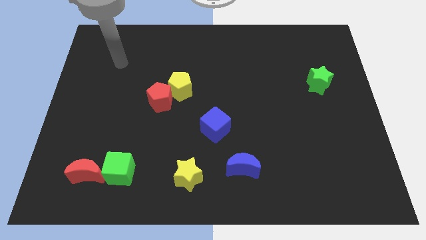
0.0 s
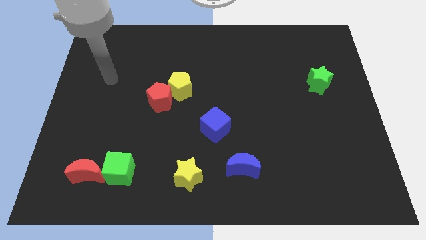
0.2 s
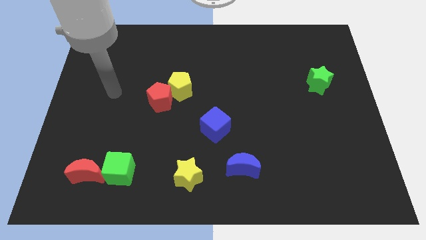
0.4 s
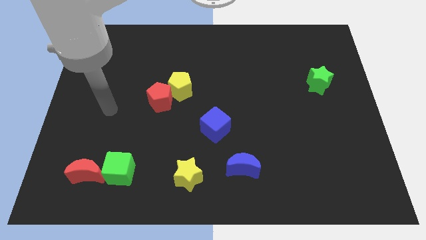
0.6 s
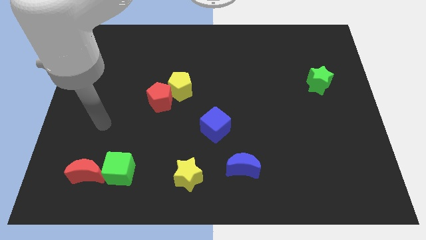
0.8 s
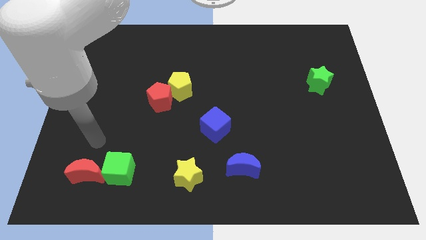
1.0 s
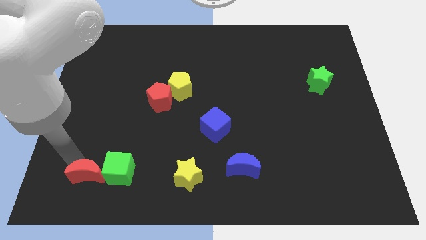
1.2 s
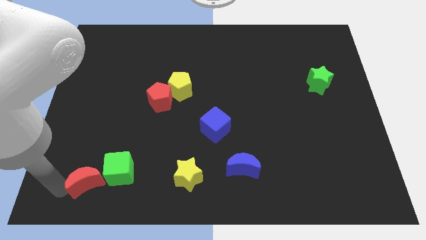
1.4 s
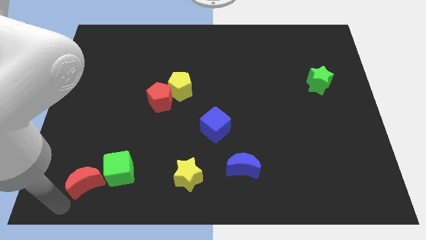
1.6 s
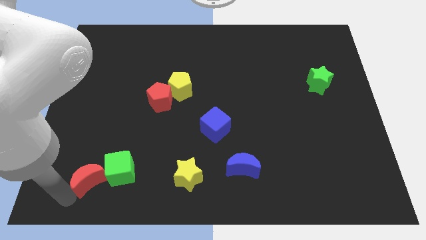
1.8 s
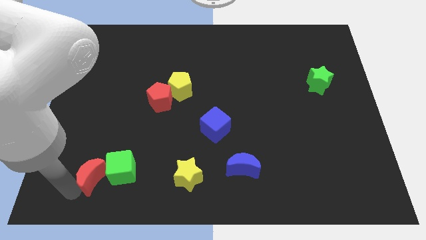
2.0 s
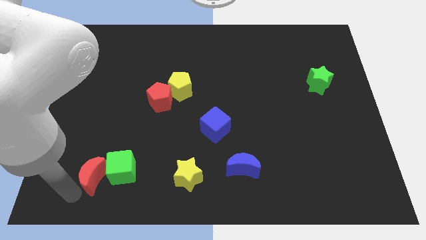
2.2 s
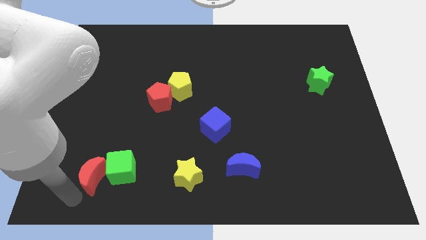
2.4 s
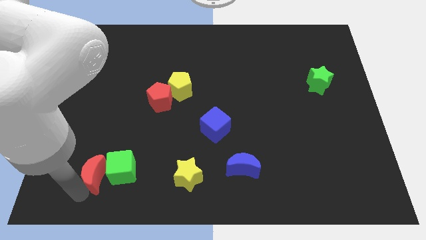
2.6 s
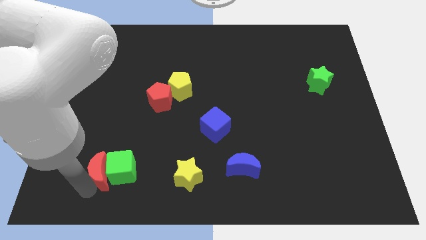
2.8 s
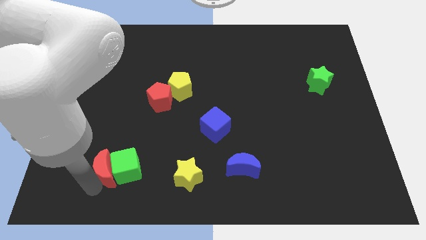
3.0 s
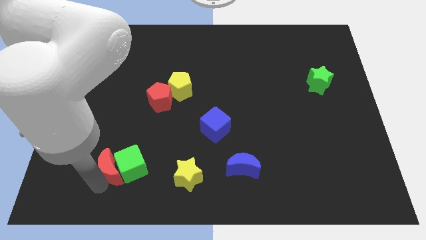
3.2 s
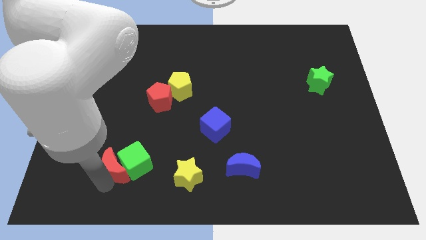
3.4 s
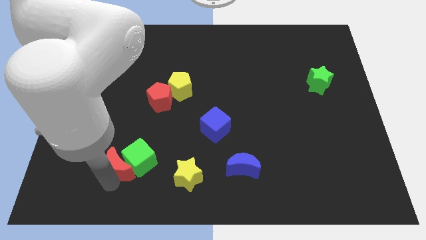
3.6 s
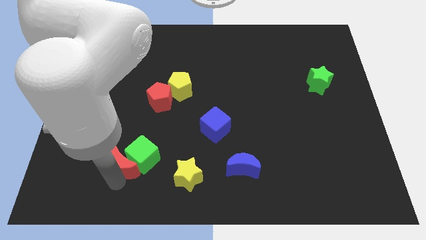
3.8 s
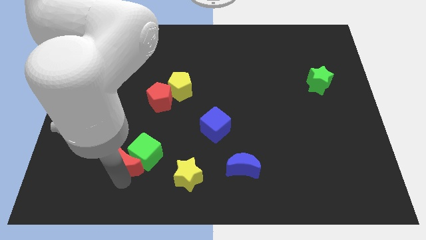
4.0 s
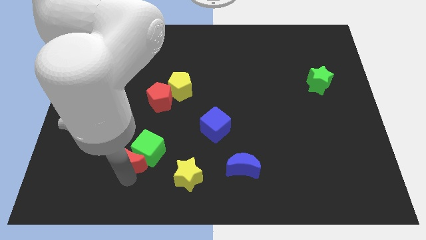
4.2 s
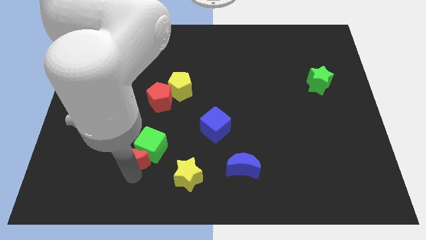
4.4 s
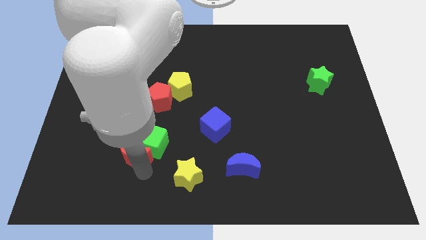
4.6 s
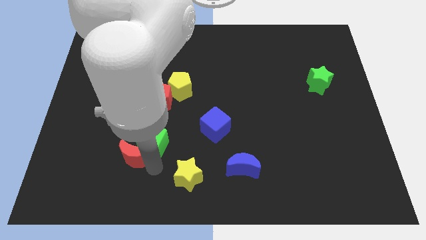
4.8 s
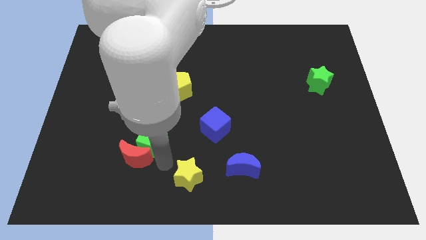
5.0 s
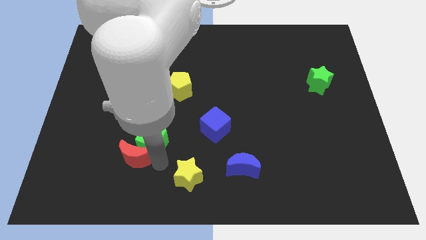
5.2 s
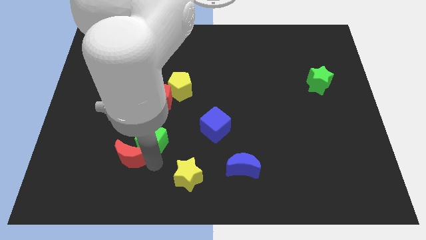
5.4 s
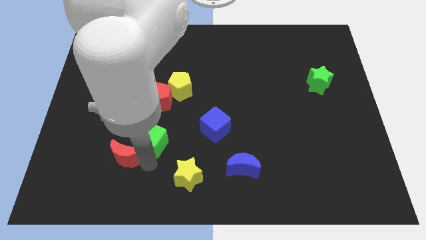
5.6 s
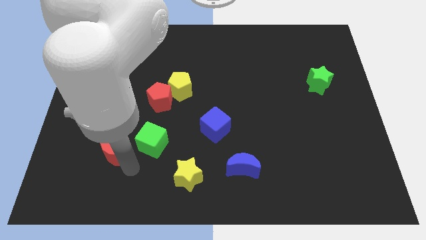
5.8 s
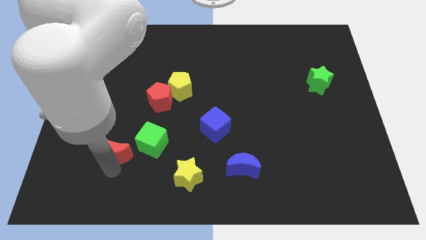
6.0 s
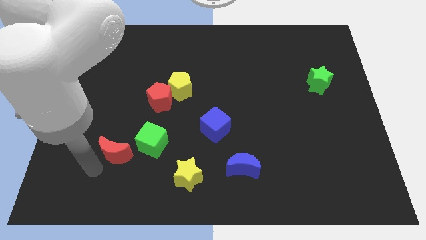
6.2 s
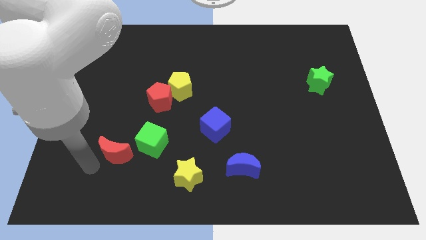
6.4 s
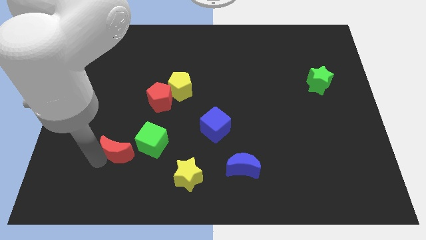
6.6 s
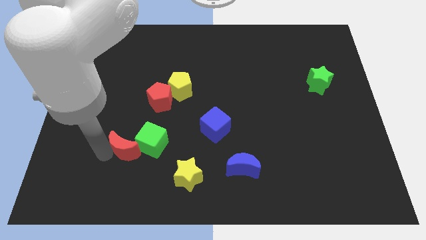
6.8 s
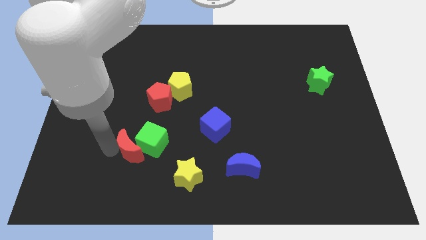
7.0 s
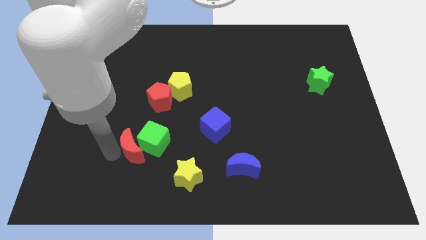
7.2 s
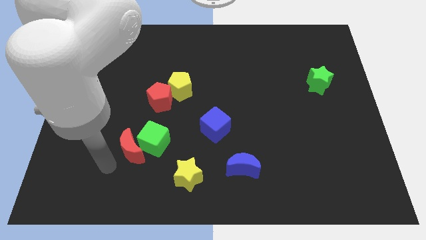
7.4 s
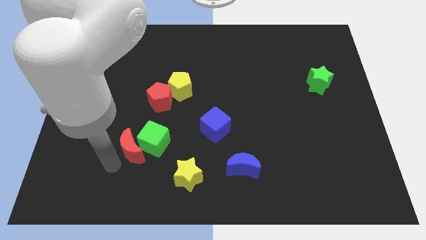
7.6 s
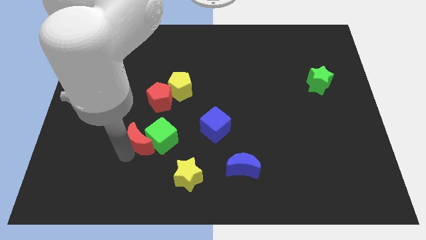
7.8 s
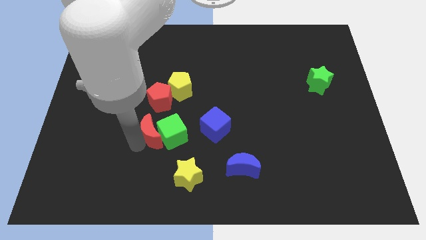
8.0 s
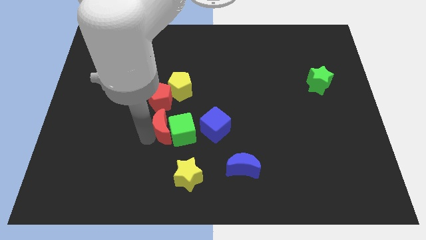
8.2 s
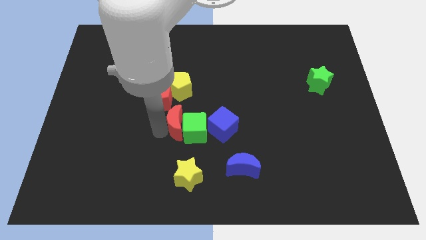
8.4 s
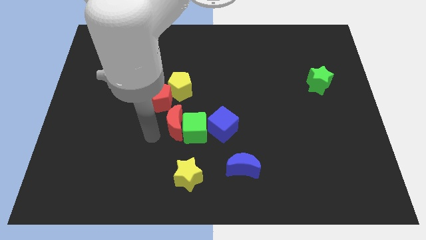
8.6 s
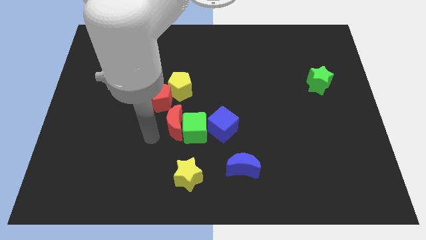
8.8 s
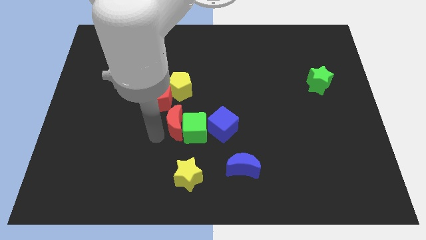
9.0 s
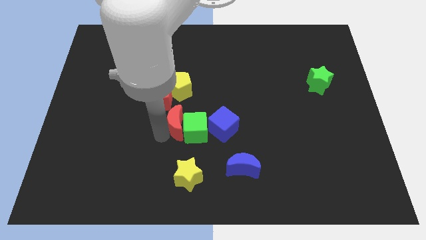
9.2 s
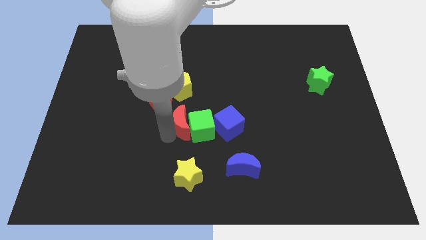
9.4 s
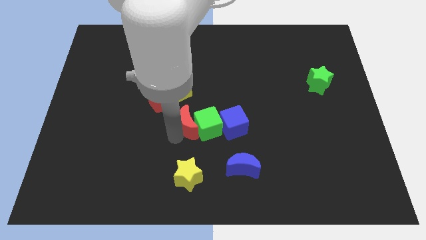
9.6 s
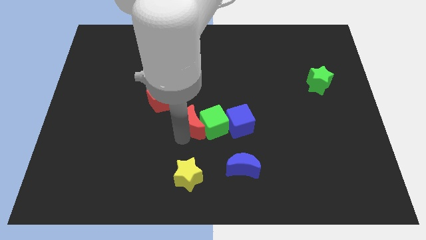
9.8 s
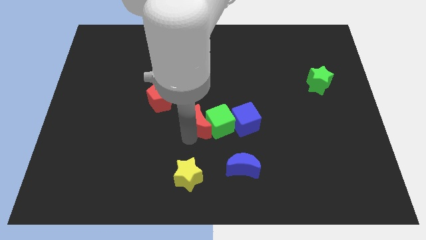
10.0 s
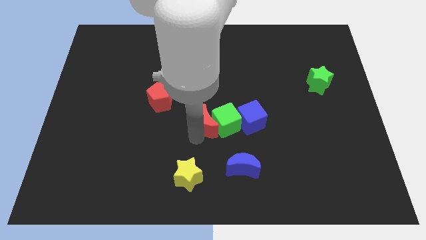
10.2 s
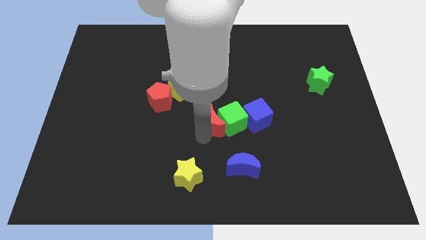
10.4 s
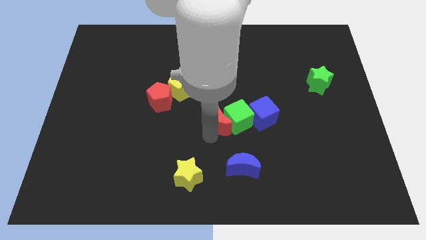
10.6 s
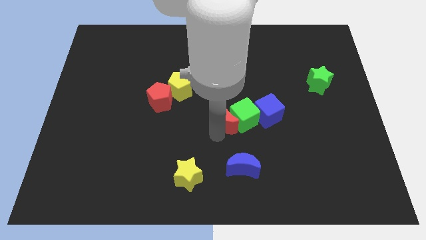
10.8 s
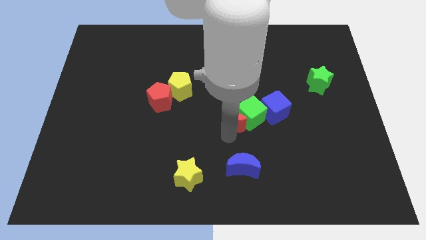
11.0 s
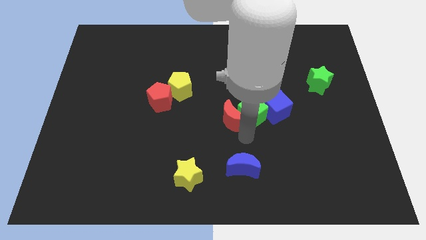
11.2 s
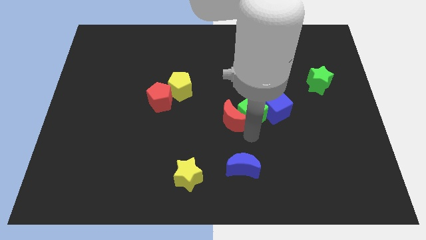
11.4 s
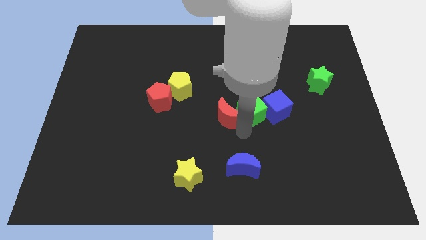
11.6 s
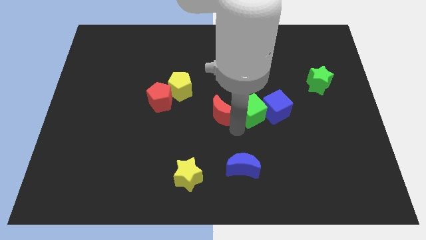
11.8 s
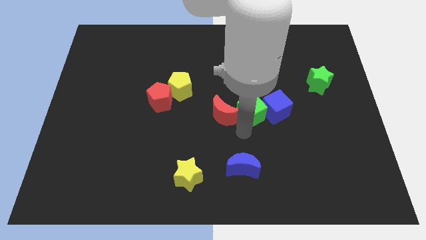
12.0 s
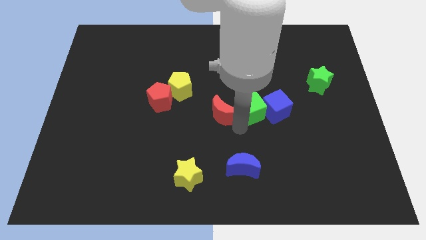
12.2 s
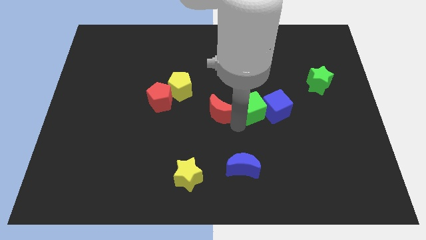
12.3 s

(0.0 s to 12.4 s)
slide the red moon to the right side of the red pentagon

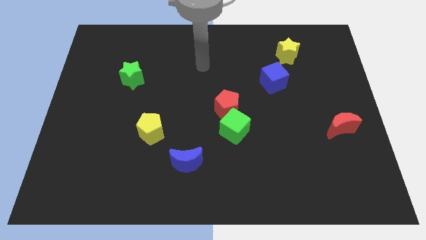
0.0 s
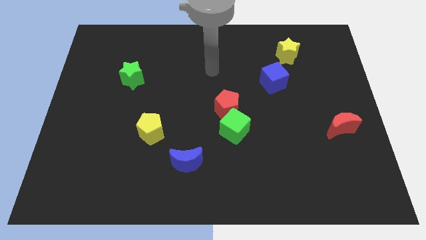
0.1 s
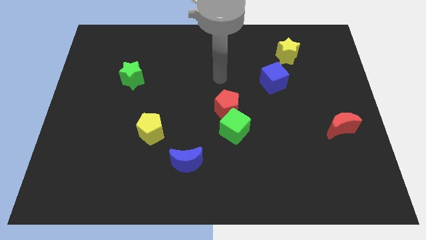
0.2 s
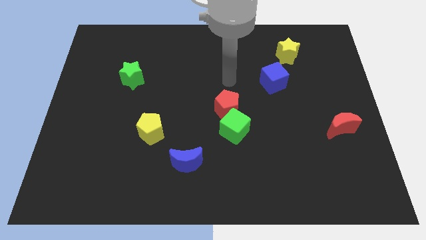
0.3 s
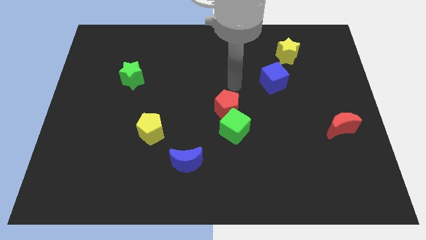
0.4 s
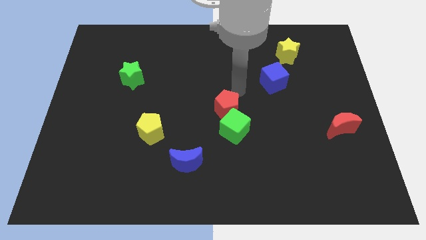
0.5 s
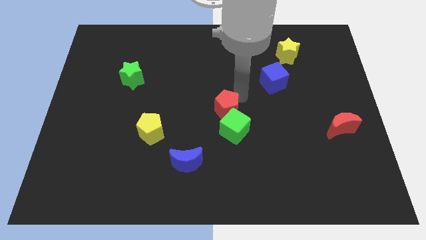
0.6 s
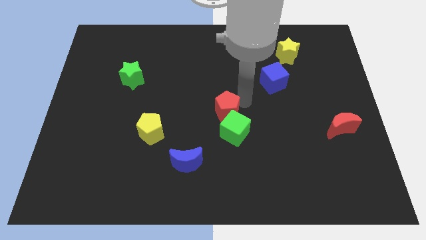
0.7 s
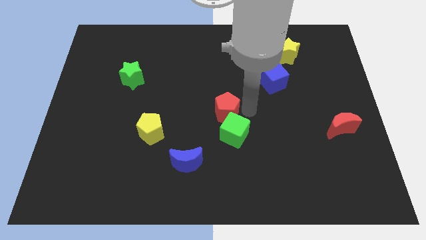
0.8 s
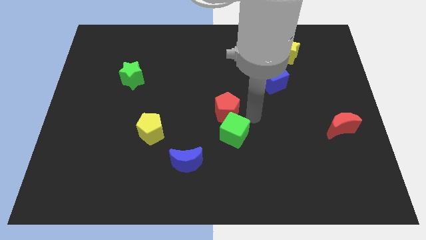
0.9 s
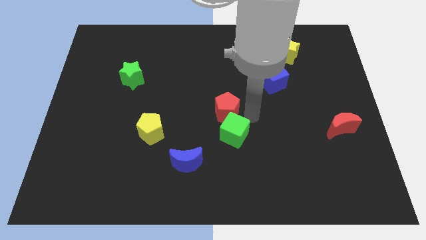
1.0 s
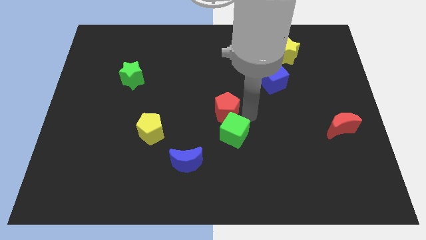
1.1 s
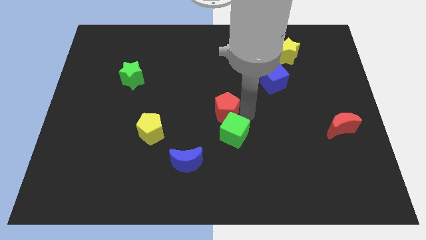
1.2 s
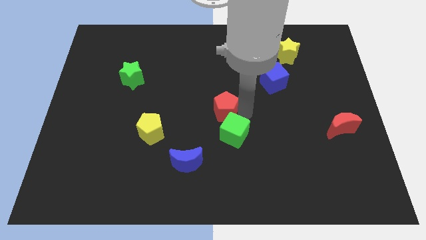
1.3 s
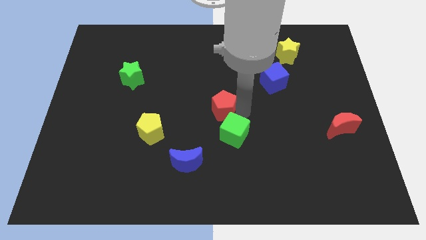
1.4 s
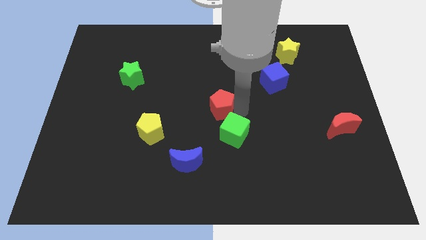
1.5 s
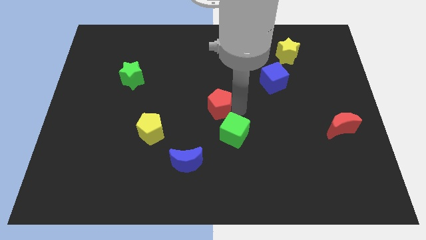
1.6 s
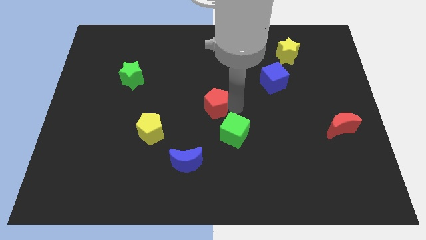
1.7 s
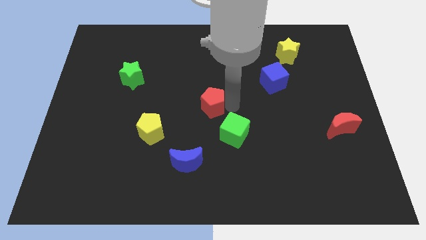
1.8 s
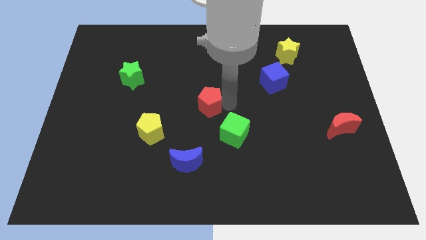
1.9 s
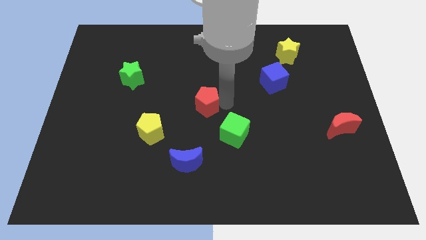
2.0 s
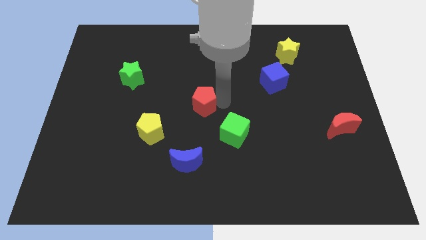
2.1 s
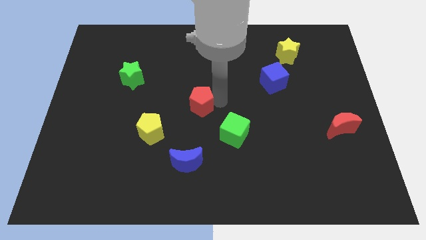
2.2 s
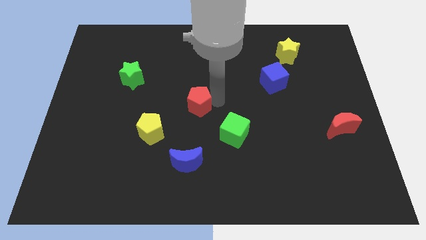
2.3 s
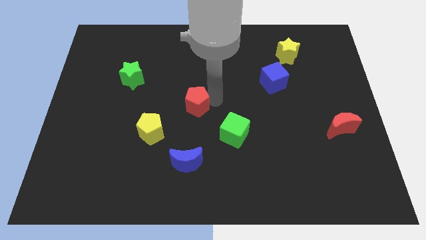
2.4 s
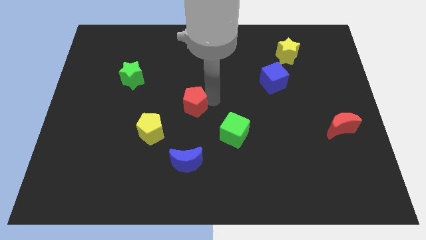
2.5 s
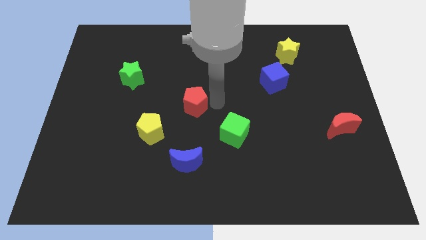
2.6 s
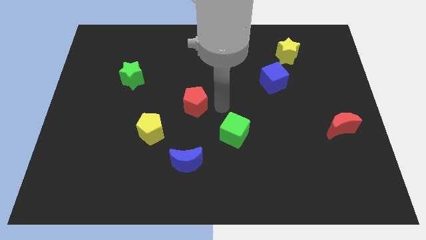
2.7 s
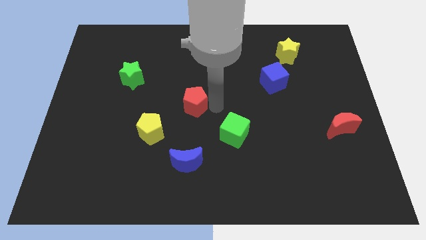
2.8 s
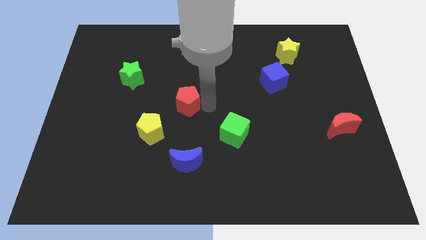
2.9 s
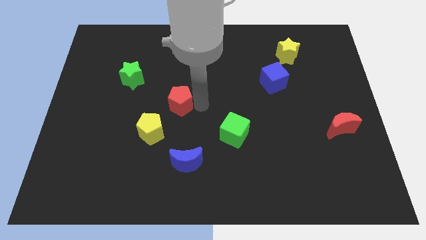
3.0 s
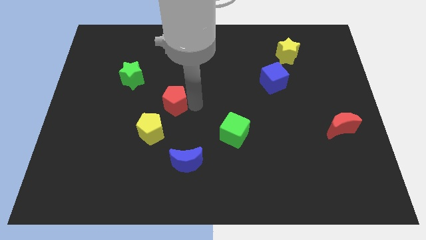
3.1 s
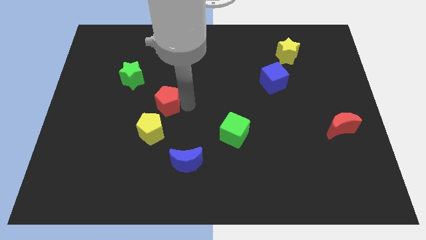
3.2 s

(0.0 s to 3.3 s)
move the red pentagon to the bottom right side of the green star
